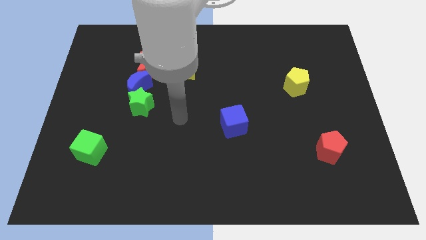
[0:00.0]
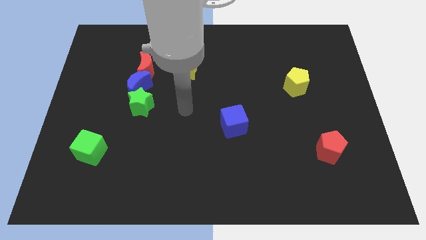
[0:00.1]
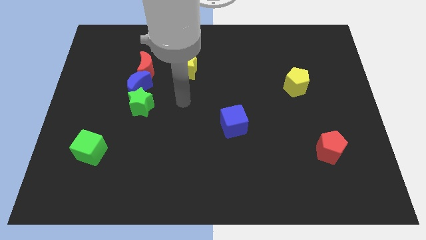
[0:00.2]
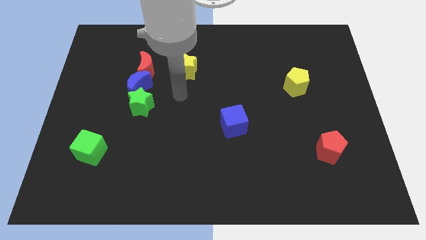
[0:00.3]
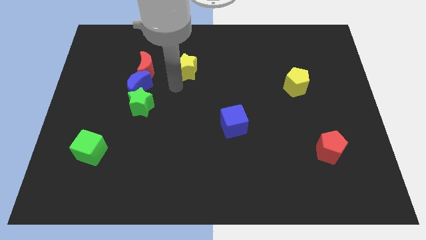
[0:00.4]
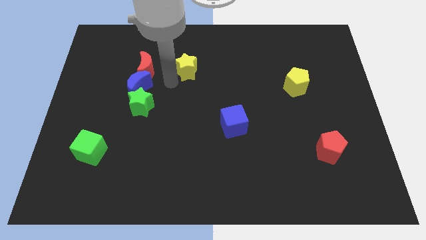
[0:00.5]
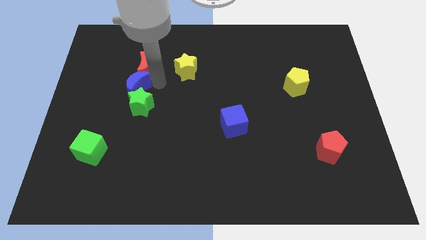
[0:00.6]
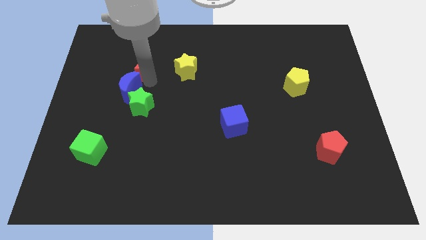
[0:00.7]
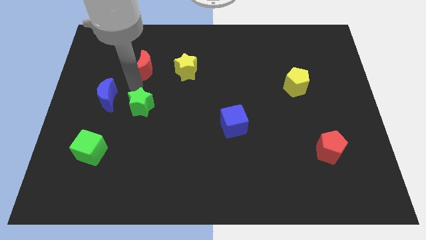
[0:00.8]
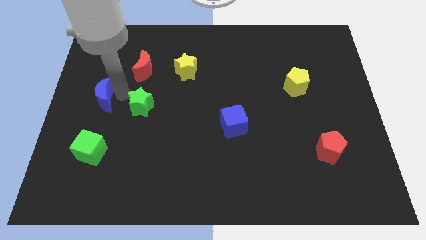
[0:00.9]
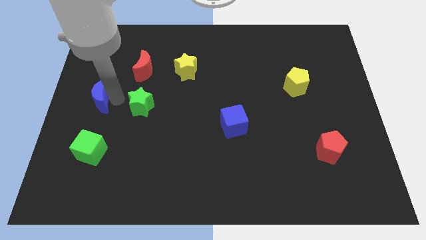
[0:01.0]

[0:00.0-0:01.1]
move the green star away from the blue moon

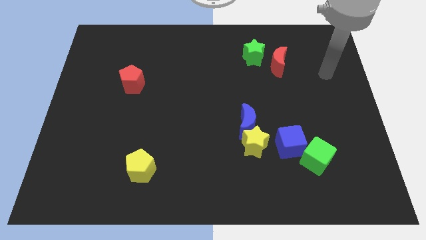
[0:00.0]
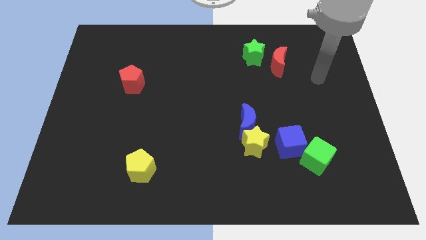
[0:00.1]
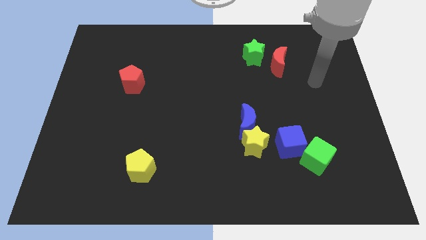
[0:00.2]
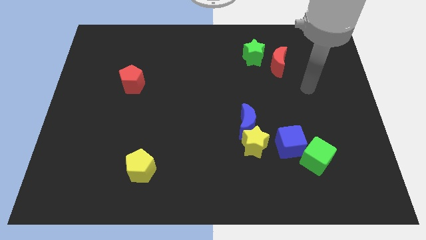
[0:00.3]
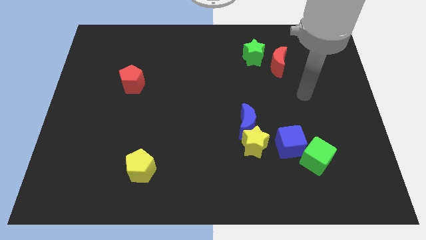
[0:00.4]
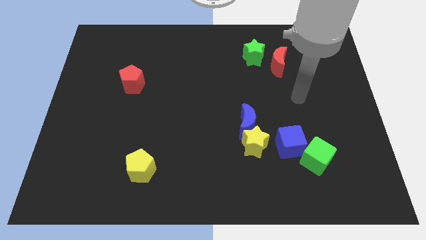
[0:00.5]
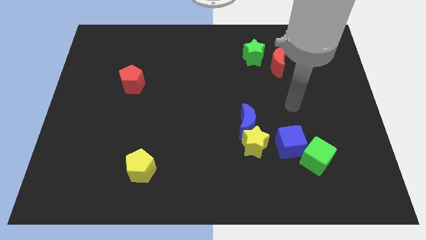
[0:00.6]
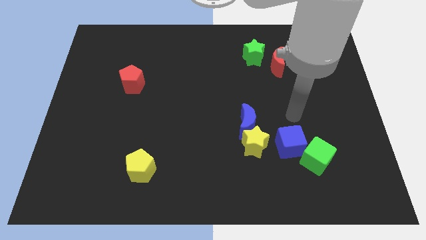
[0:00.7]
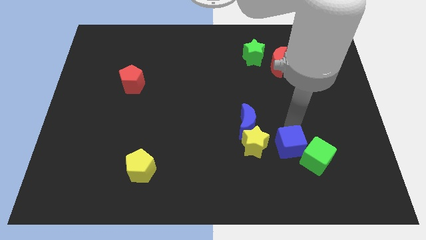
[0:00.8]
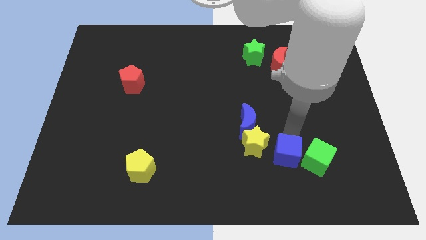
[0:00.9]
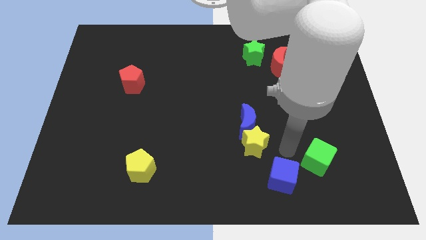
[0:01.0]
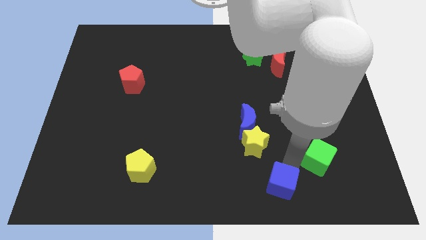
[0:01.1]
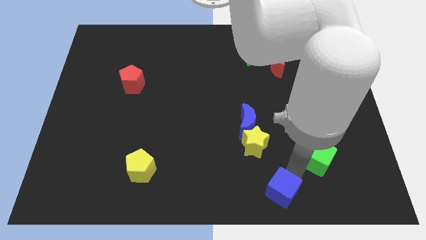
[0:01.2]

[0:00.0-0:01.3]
pull the green cube apart from the blue cube

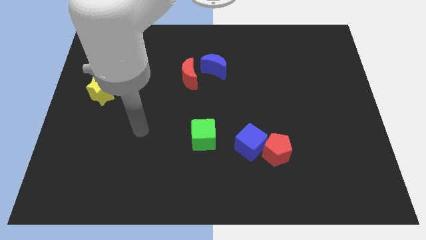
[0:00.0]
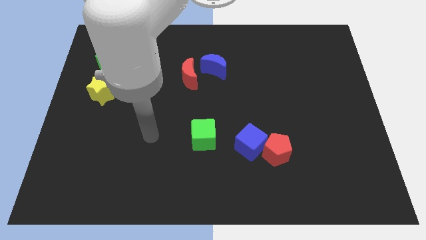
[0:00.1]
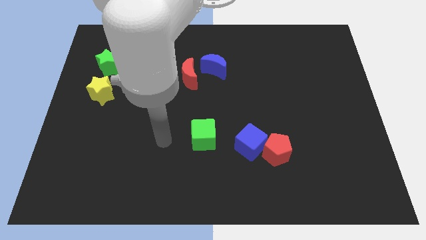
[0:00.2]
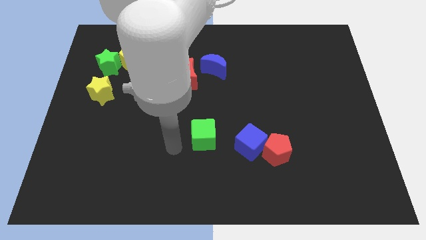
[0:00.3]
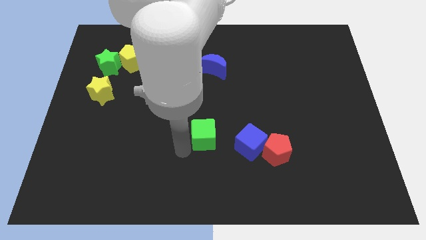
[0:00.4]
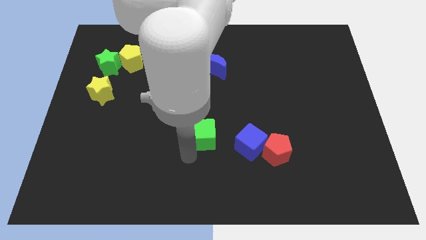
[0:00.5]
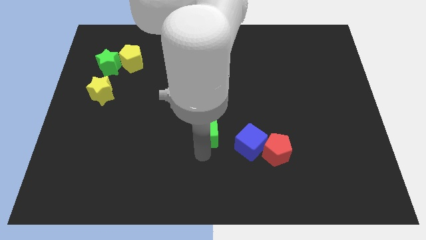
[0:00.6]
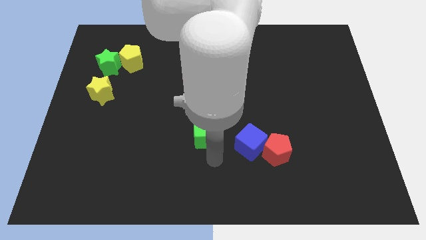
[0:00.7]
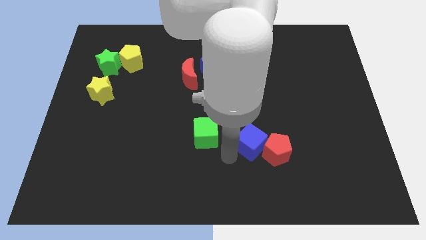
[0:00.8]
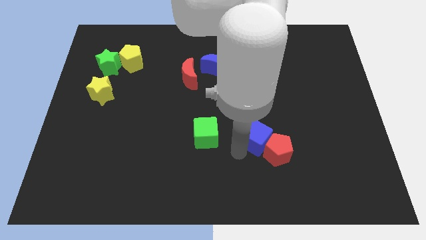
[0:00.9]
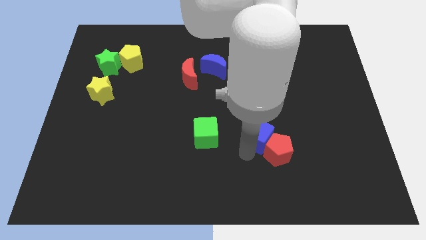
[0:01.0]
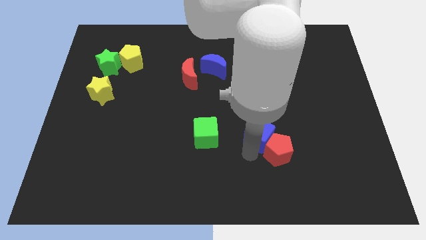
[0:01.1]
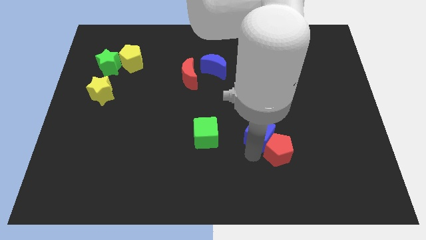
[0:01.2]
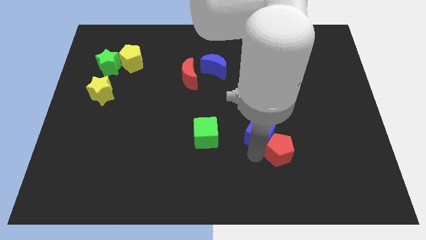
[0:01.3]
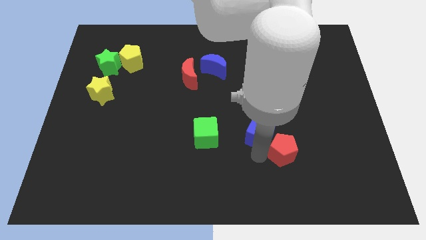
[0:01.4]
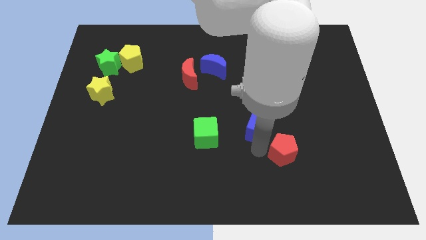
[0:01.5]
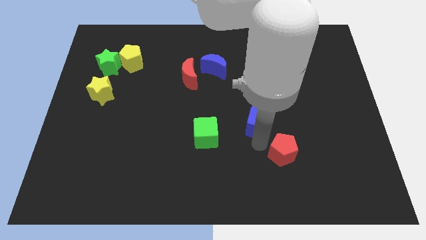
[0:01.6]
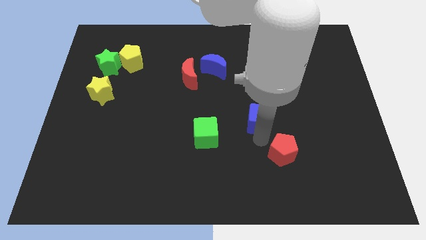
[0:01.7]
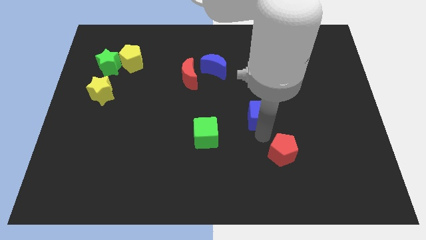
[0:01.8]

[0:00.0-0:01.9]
separate the red pentagon from the blue cube

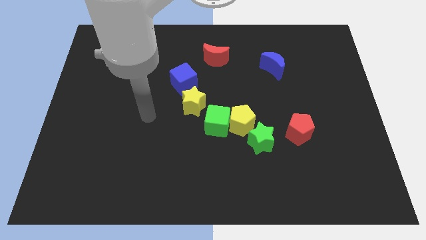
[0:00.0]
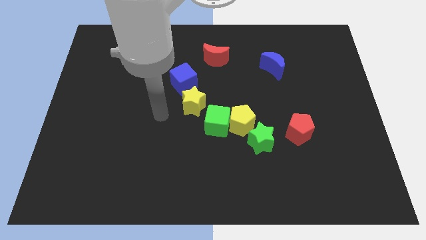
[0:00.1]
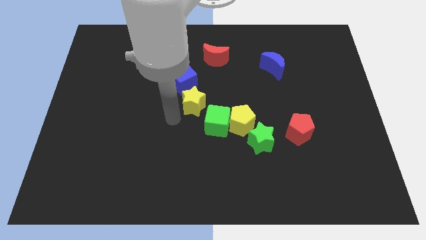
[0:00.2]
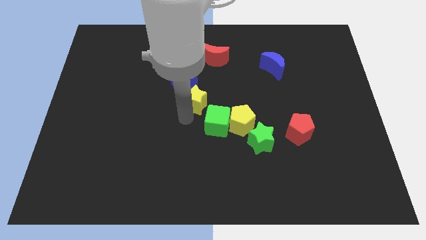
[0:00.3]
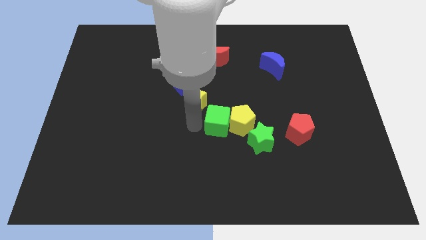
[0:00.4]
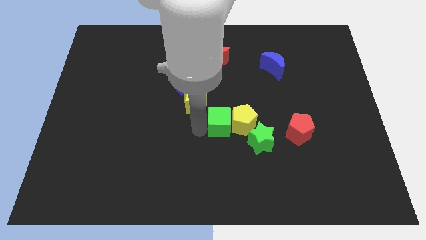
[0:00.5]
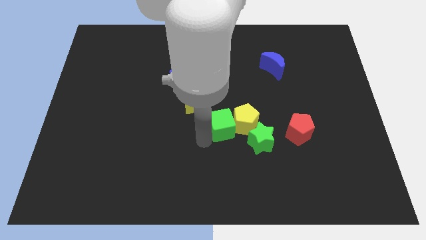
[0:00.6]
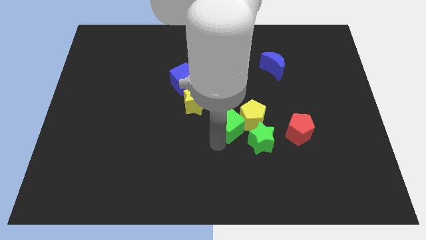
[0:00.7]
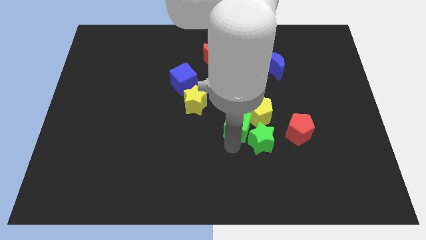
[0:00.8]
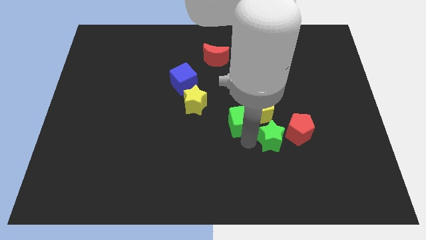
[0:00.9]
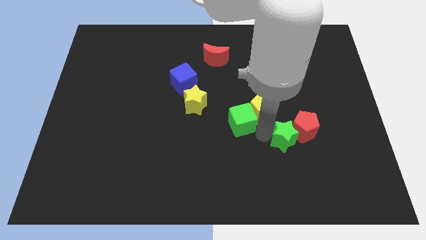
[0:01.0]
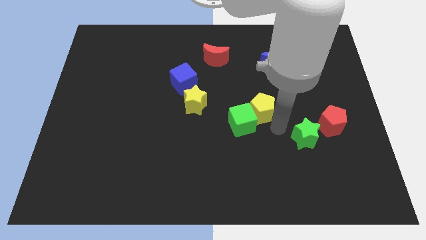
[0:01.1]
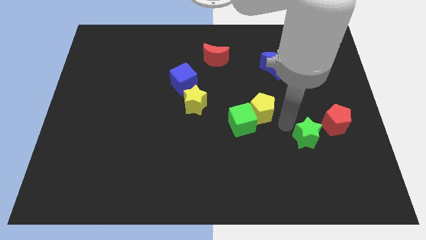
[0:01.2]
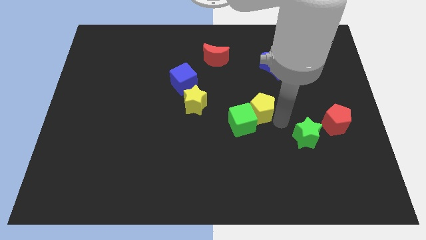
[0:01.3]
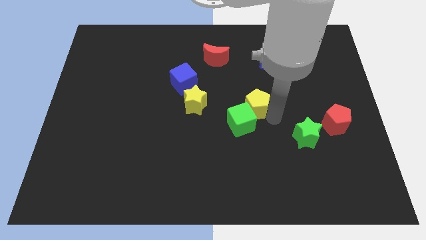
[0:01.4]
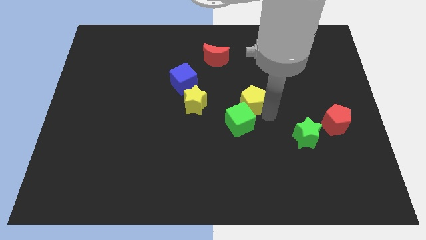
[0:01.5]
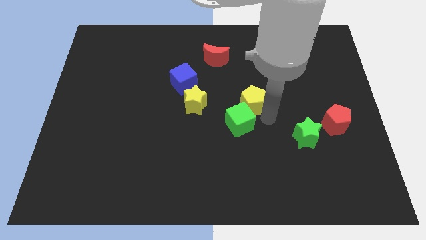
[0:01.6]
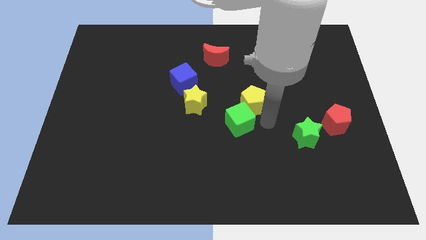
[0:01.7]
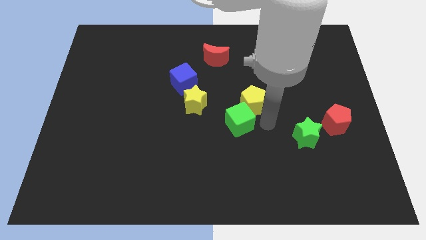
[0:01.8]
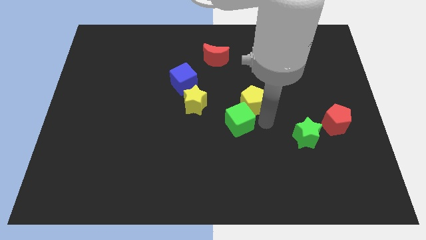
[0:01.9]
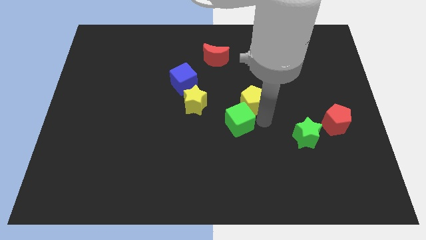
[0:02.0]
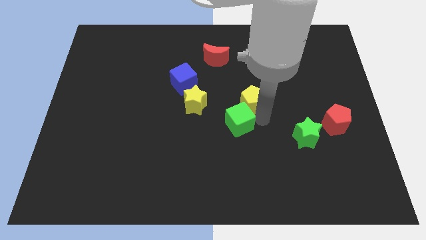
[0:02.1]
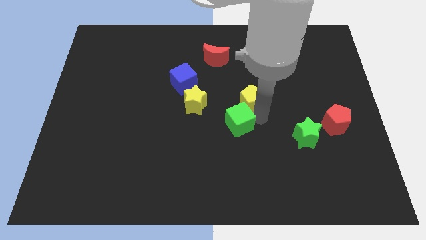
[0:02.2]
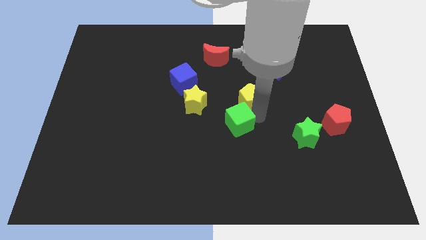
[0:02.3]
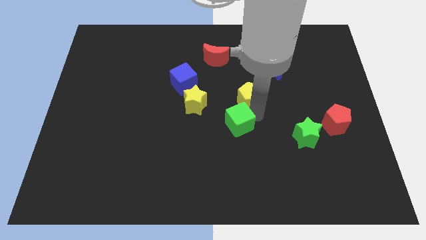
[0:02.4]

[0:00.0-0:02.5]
move the yellow pentagon away from the green cube and green star

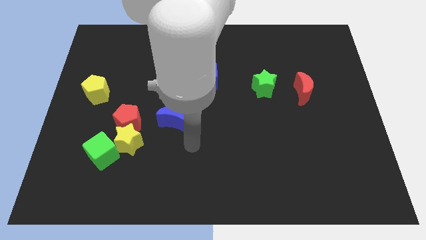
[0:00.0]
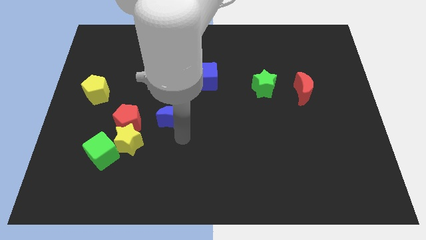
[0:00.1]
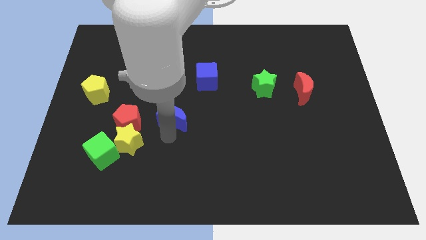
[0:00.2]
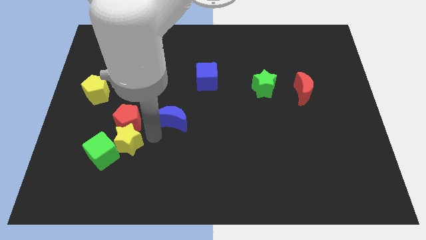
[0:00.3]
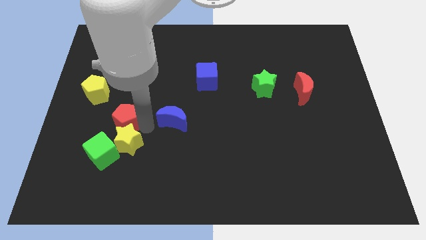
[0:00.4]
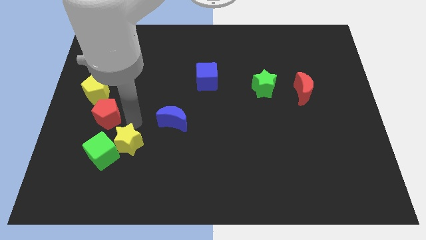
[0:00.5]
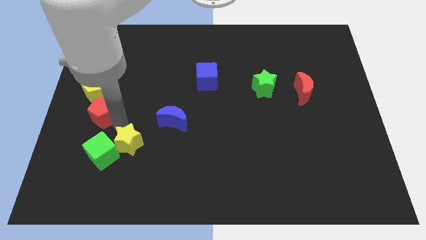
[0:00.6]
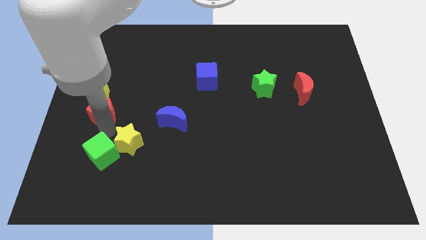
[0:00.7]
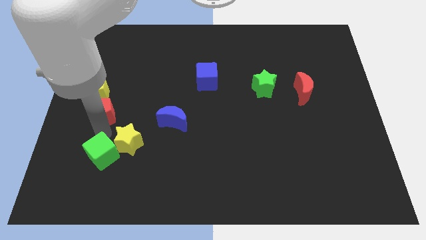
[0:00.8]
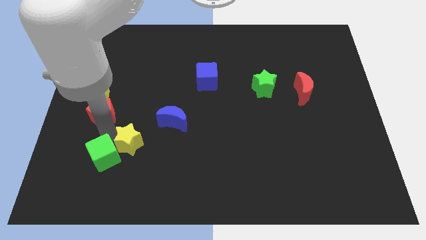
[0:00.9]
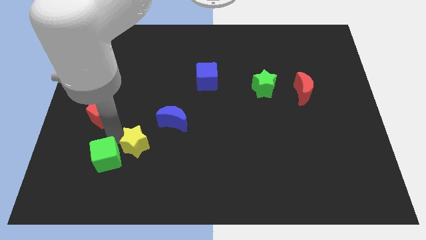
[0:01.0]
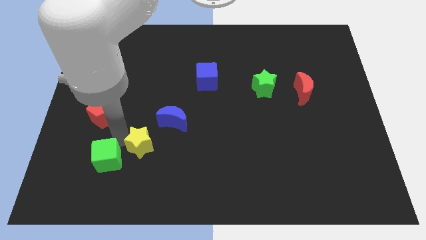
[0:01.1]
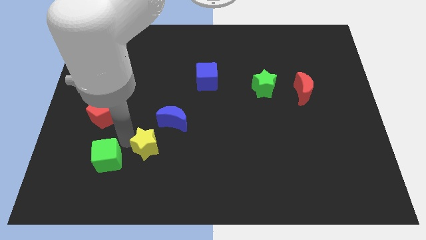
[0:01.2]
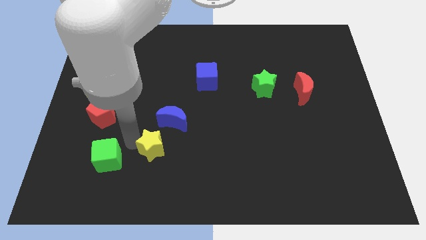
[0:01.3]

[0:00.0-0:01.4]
separate the yellow star from the red pentagon and green cube

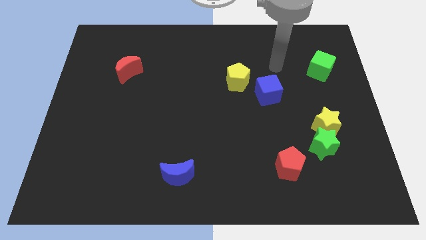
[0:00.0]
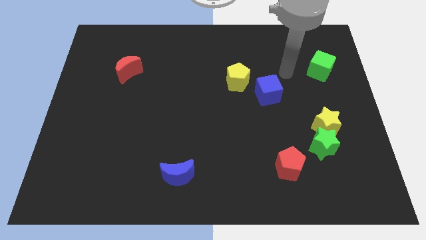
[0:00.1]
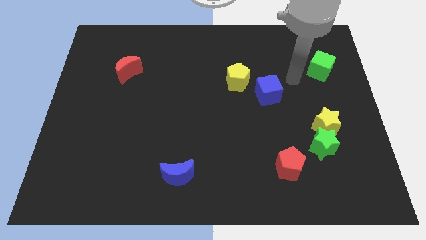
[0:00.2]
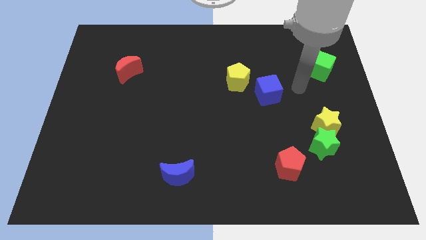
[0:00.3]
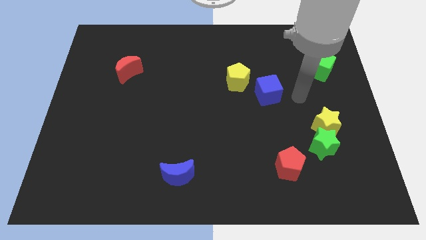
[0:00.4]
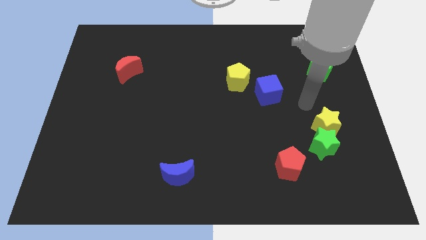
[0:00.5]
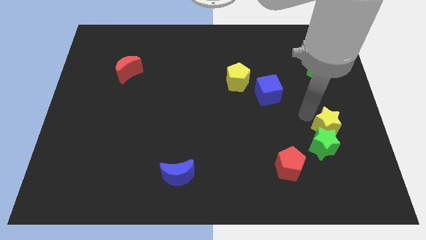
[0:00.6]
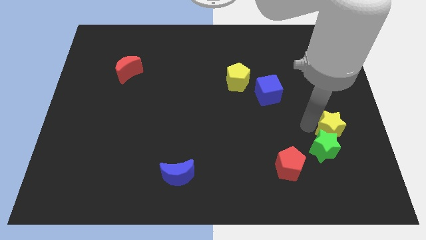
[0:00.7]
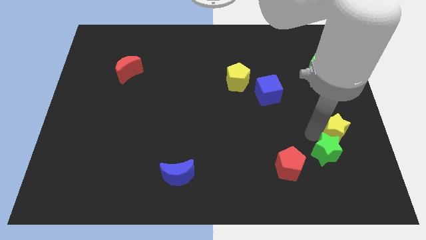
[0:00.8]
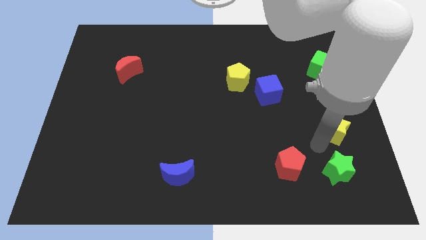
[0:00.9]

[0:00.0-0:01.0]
separate the yellow star from the green star
